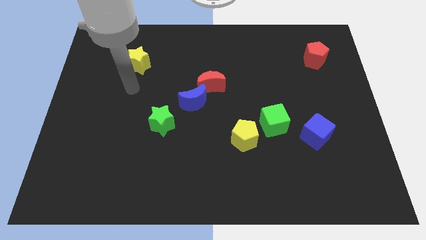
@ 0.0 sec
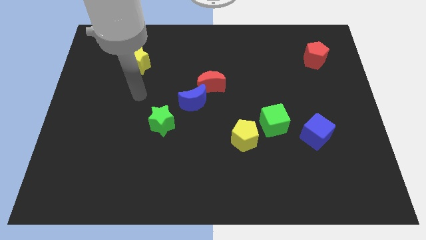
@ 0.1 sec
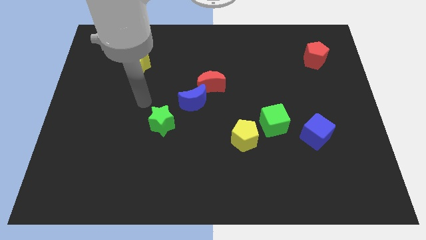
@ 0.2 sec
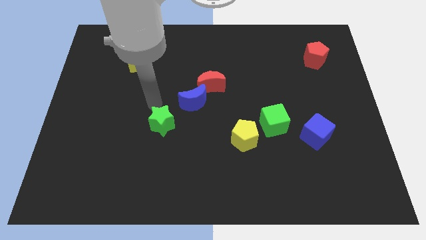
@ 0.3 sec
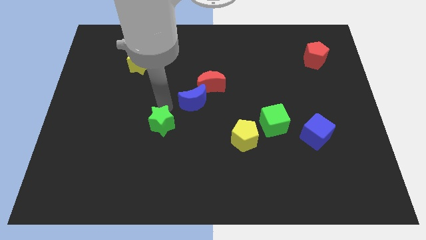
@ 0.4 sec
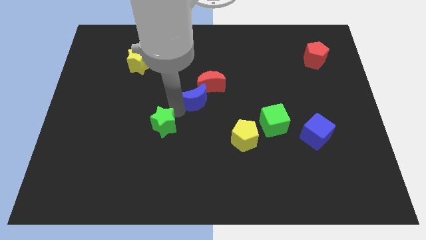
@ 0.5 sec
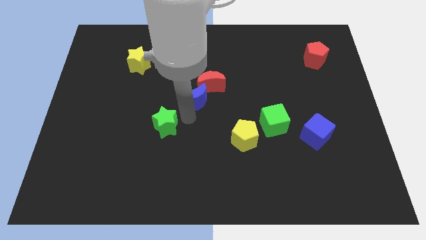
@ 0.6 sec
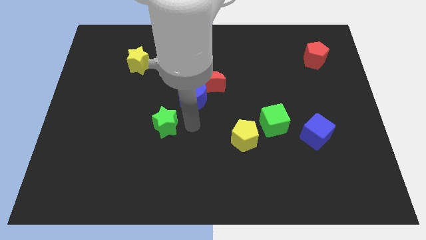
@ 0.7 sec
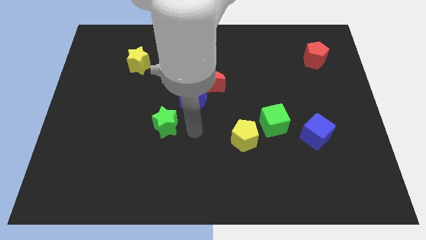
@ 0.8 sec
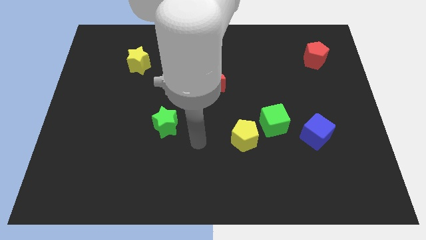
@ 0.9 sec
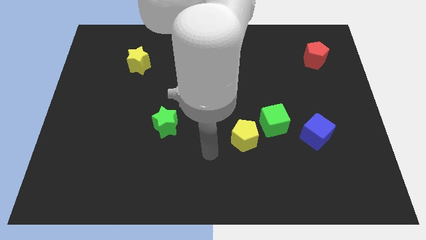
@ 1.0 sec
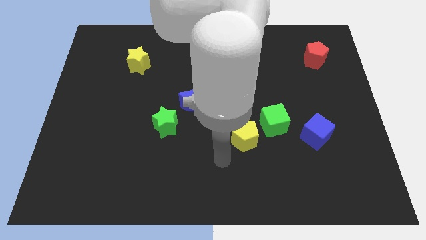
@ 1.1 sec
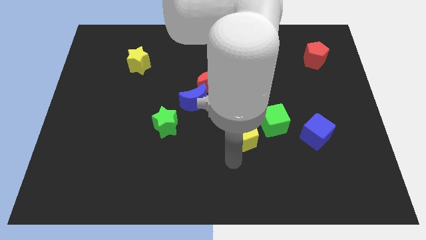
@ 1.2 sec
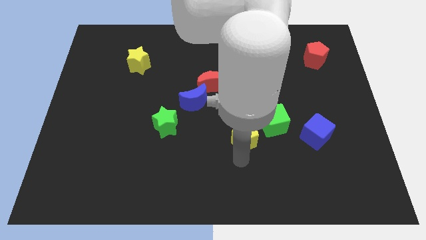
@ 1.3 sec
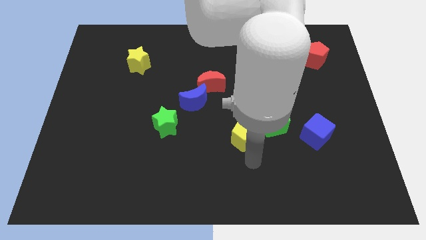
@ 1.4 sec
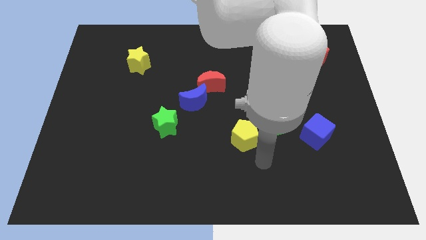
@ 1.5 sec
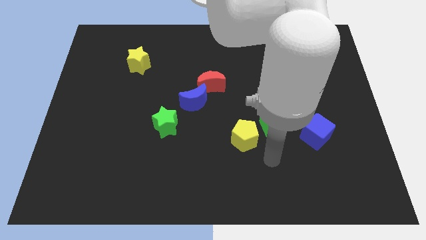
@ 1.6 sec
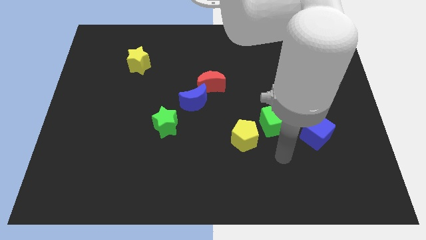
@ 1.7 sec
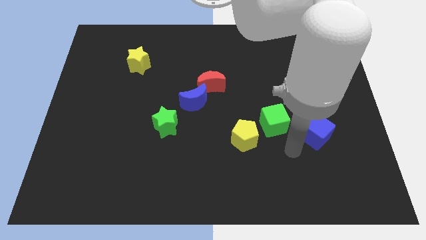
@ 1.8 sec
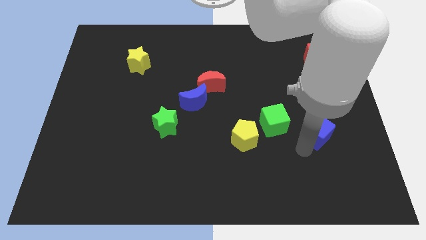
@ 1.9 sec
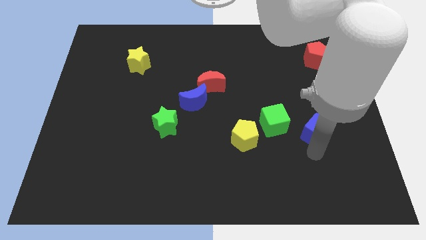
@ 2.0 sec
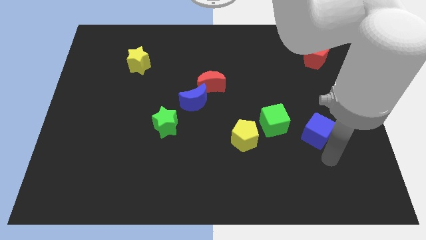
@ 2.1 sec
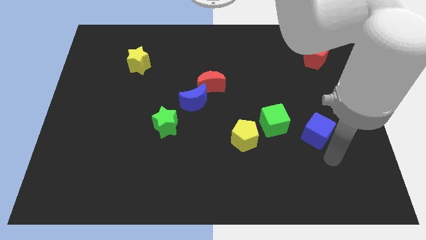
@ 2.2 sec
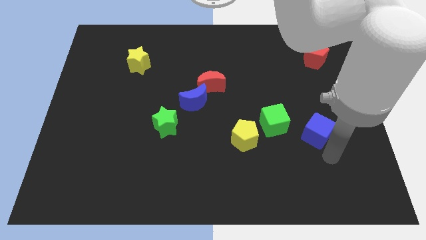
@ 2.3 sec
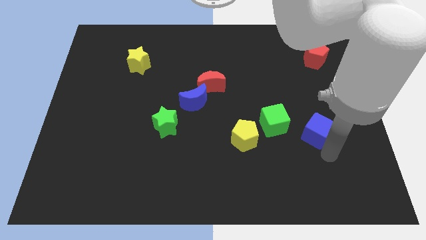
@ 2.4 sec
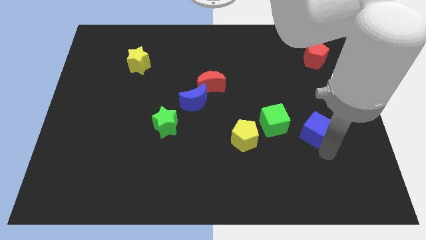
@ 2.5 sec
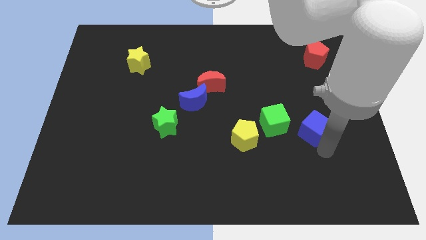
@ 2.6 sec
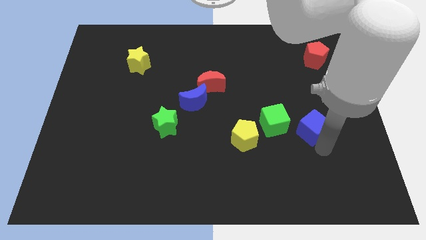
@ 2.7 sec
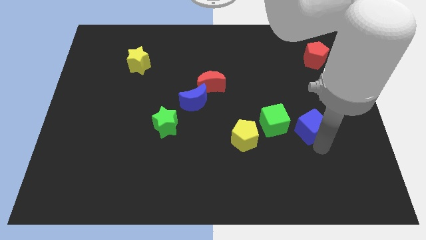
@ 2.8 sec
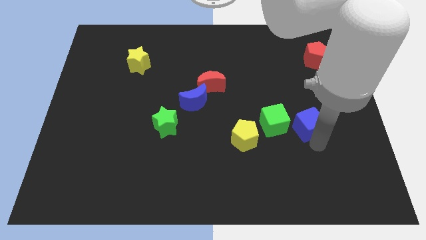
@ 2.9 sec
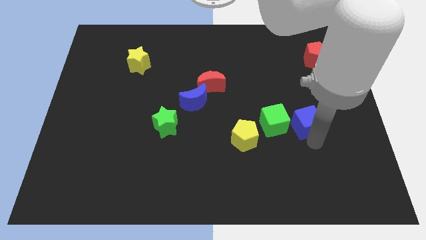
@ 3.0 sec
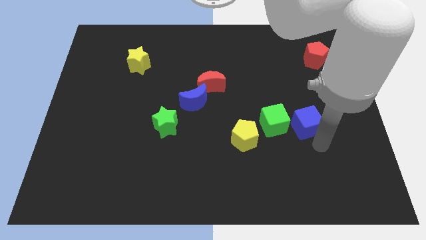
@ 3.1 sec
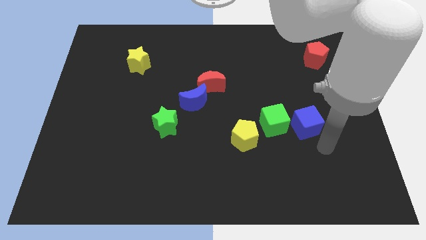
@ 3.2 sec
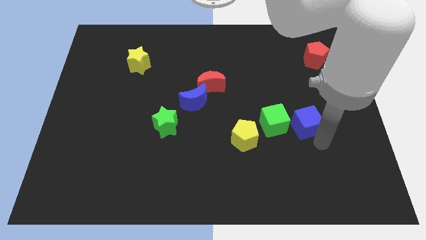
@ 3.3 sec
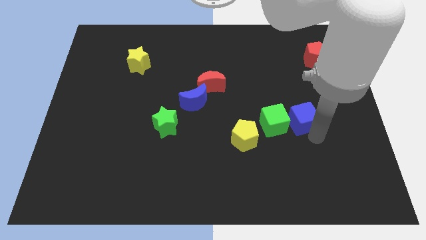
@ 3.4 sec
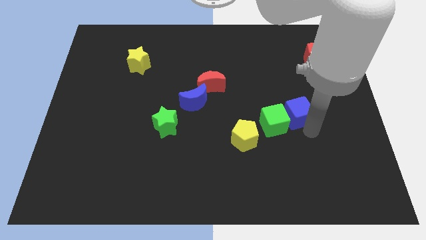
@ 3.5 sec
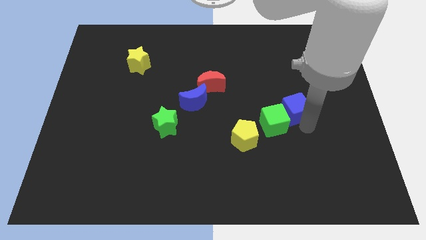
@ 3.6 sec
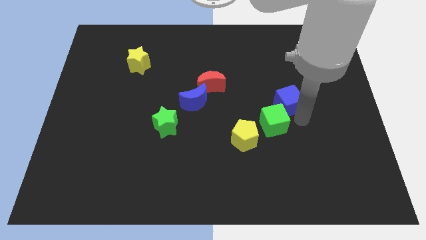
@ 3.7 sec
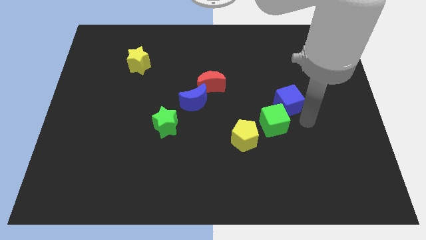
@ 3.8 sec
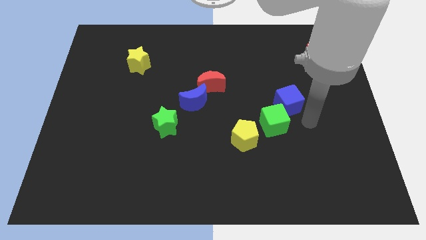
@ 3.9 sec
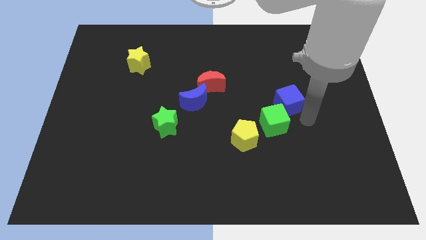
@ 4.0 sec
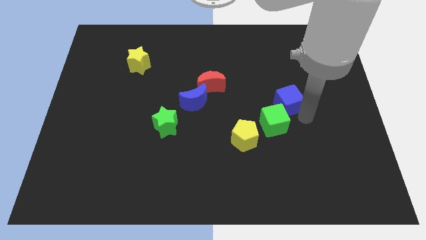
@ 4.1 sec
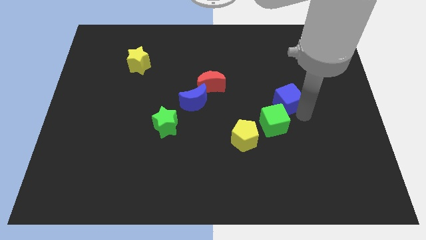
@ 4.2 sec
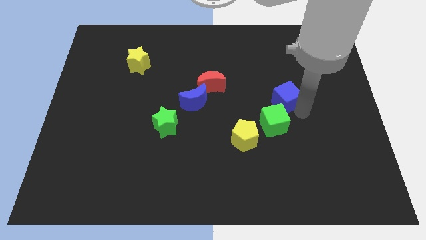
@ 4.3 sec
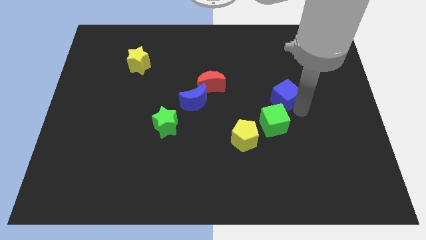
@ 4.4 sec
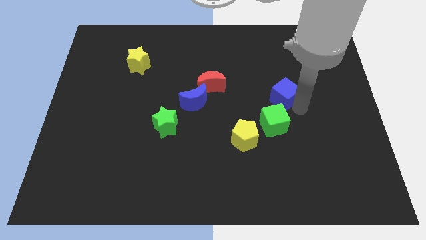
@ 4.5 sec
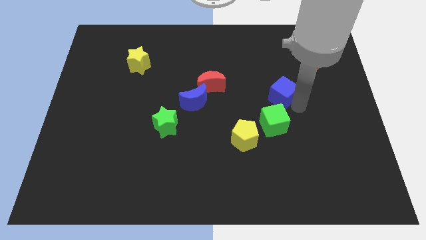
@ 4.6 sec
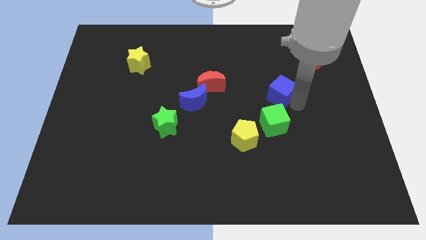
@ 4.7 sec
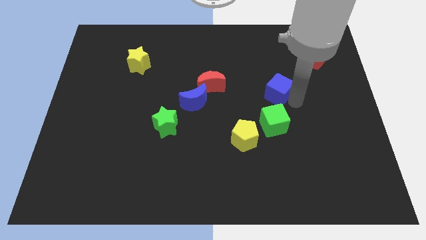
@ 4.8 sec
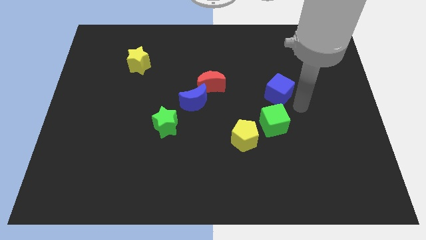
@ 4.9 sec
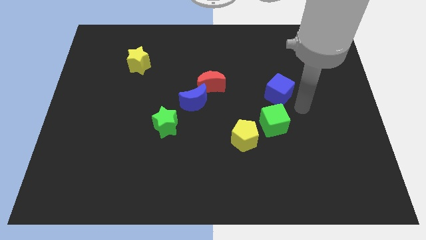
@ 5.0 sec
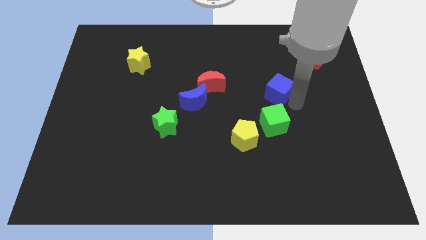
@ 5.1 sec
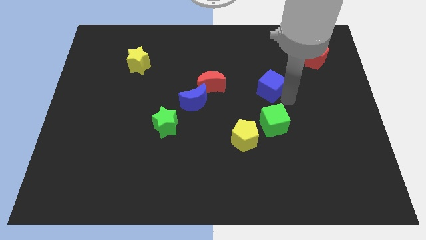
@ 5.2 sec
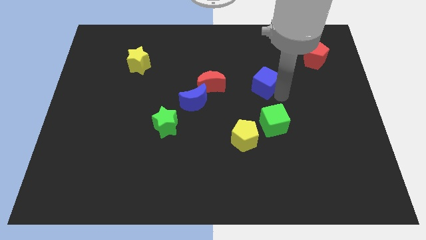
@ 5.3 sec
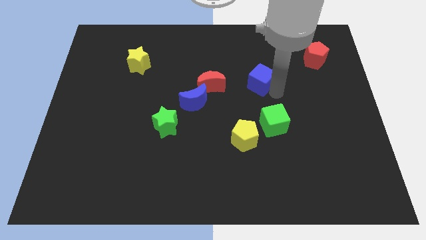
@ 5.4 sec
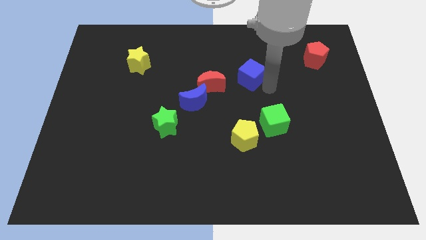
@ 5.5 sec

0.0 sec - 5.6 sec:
push the blue cube upwards and to the left

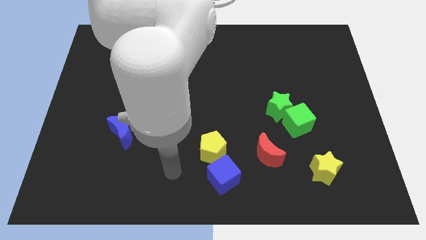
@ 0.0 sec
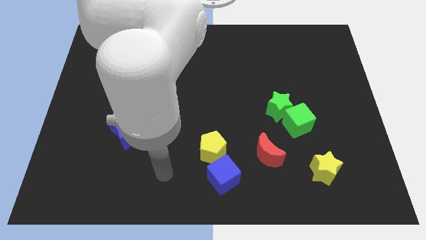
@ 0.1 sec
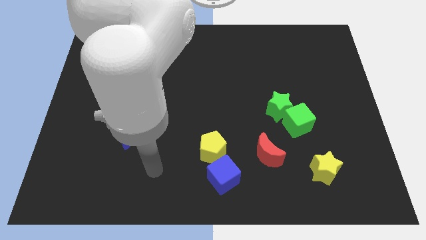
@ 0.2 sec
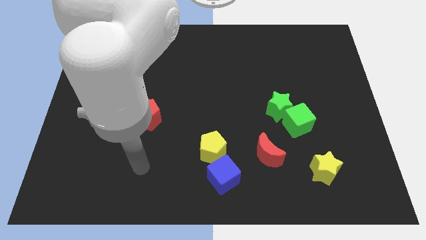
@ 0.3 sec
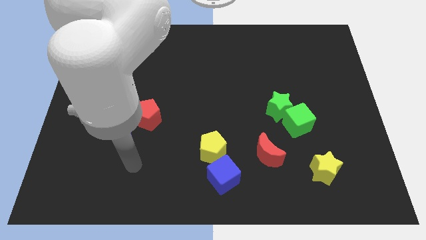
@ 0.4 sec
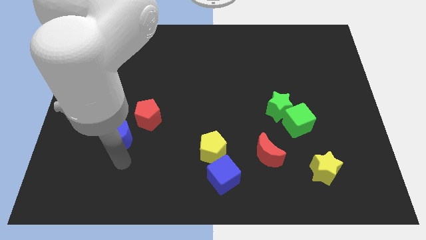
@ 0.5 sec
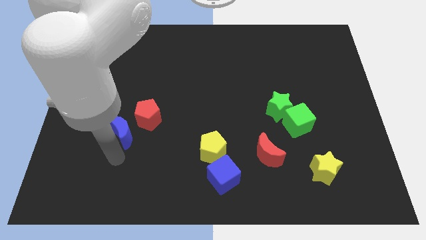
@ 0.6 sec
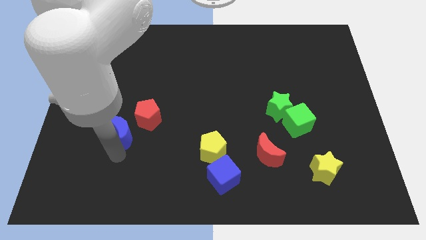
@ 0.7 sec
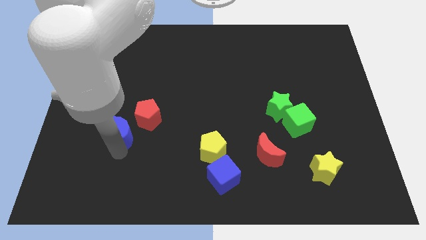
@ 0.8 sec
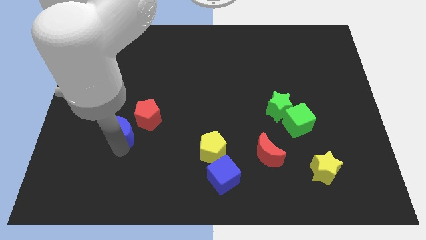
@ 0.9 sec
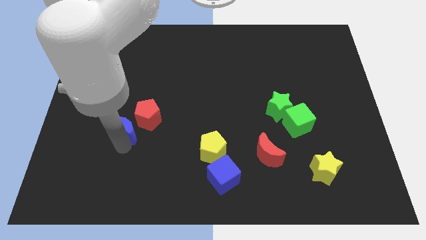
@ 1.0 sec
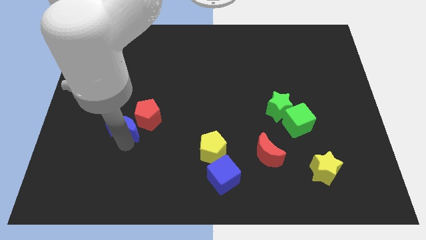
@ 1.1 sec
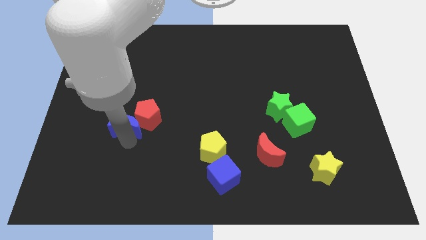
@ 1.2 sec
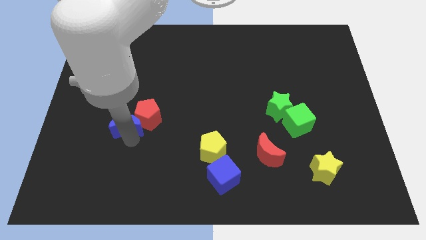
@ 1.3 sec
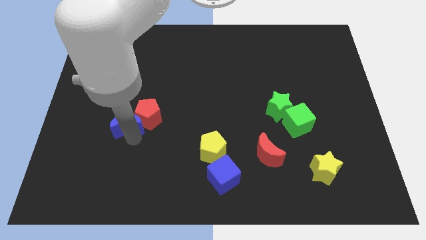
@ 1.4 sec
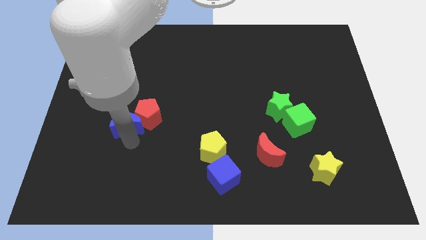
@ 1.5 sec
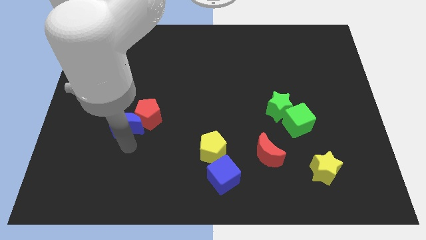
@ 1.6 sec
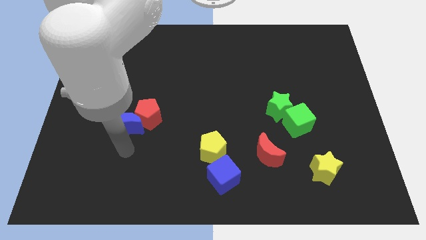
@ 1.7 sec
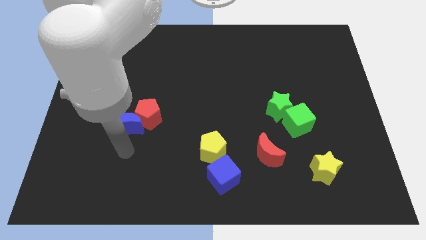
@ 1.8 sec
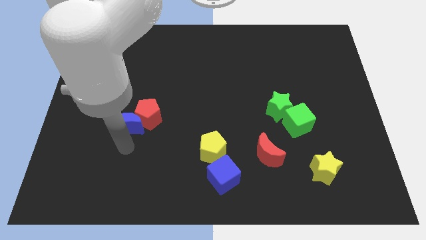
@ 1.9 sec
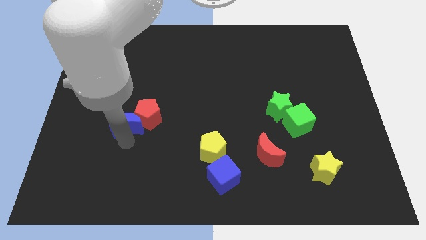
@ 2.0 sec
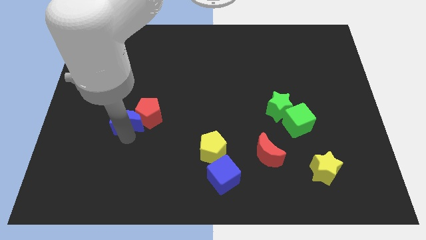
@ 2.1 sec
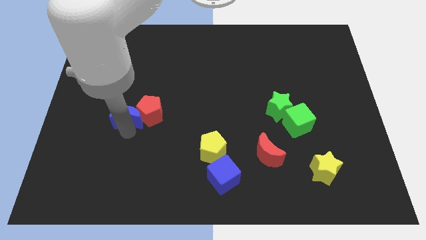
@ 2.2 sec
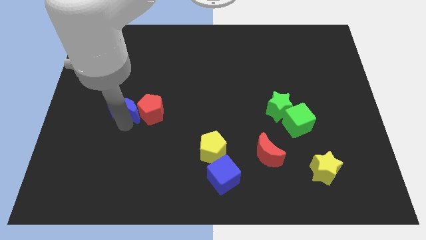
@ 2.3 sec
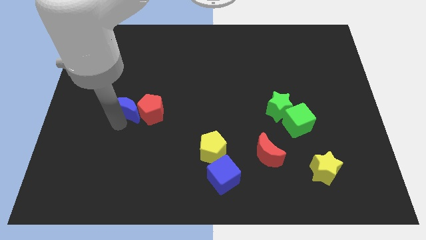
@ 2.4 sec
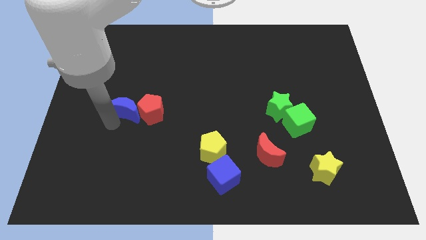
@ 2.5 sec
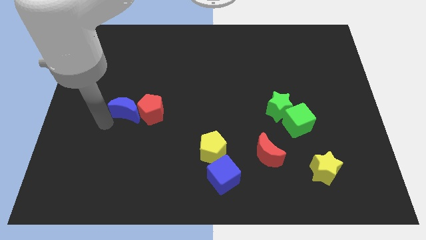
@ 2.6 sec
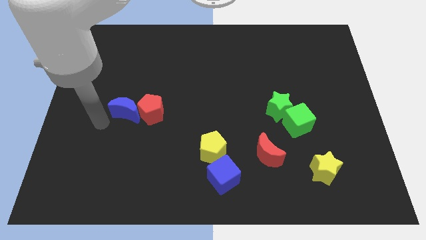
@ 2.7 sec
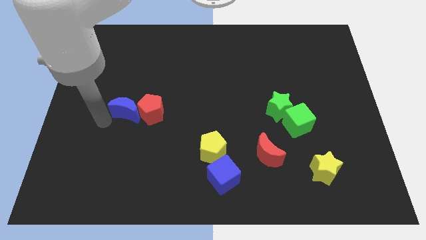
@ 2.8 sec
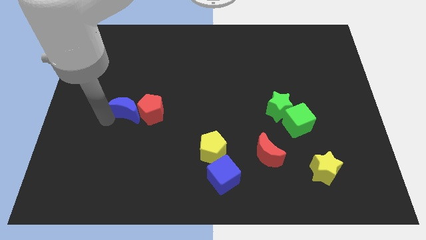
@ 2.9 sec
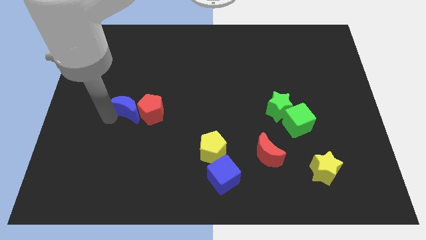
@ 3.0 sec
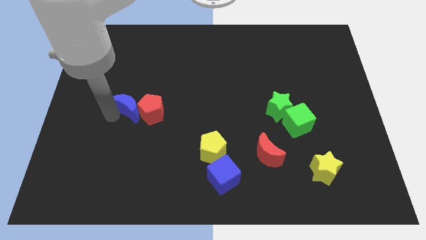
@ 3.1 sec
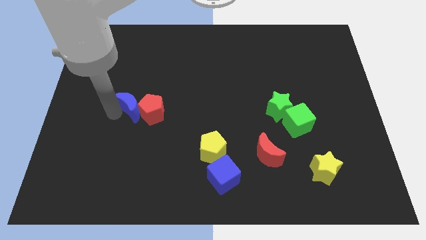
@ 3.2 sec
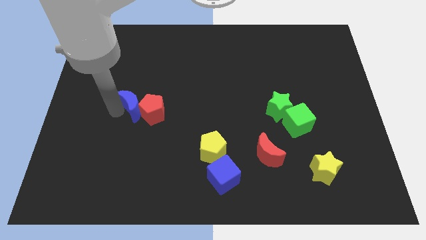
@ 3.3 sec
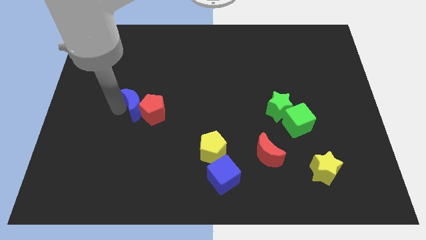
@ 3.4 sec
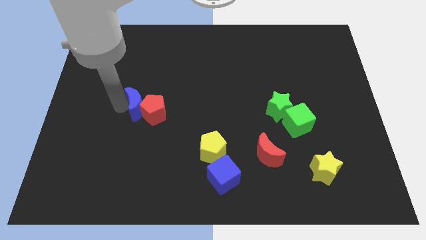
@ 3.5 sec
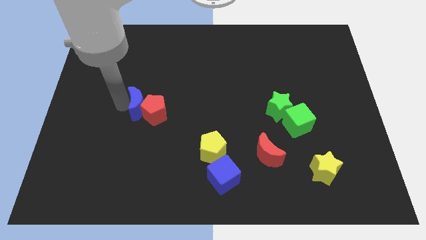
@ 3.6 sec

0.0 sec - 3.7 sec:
slightly move the blue moon upwards and to the right diagonally
